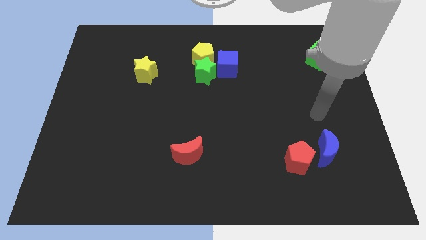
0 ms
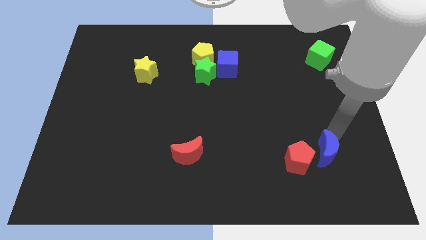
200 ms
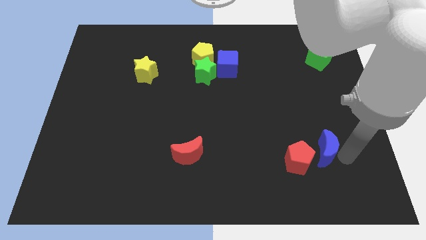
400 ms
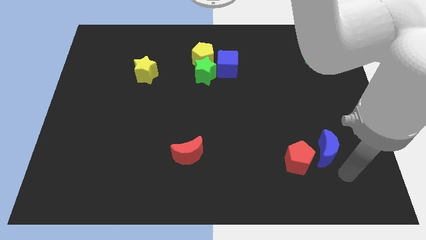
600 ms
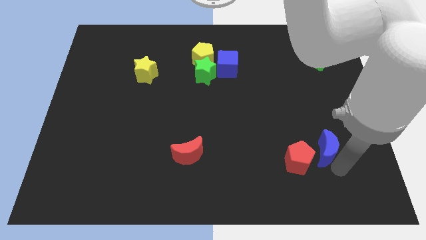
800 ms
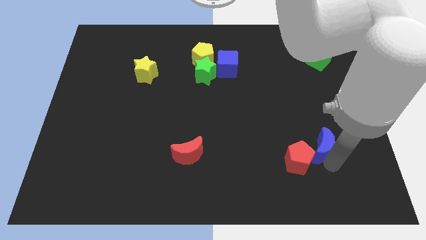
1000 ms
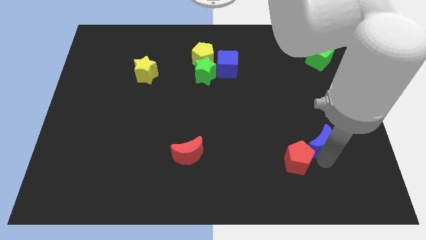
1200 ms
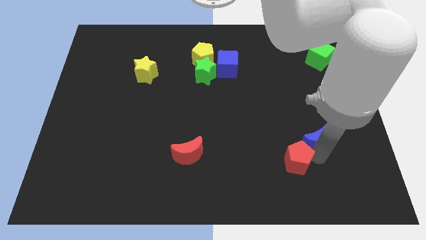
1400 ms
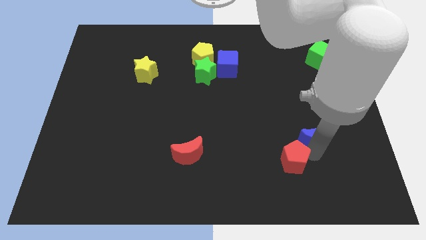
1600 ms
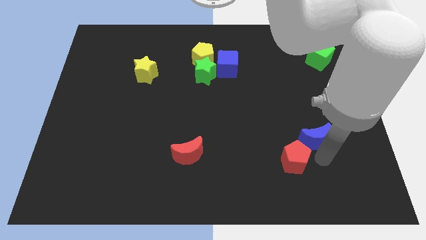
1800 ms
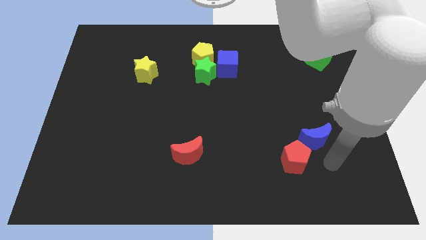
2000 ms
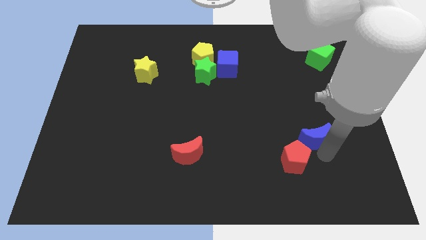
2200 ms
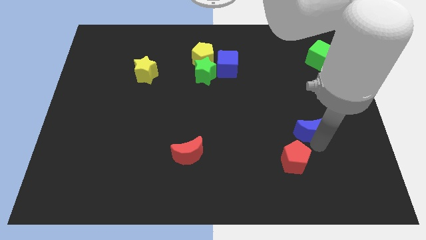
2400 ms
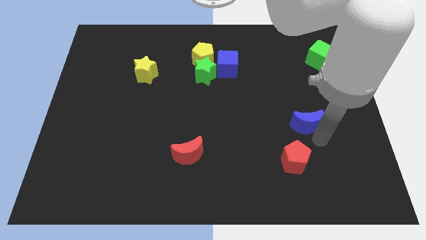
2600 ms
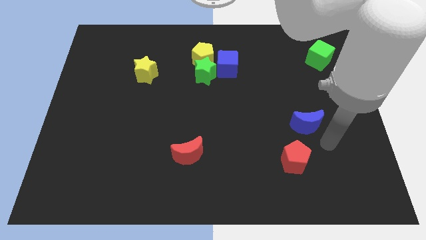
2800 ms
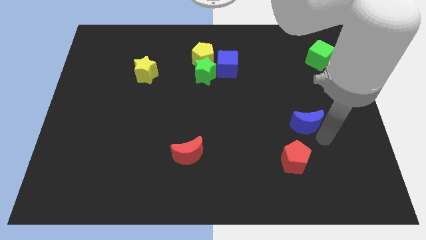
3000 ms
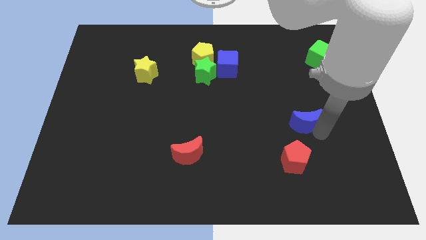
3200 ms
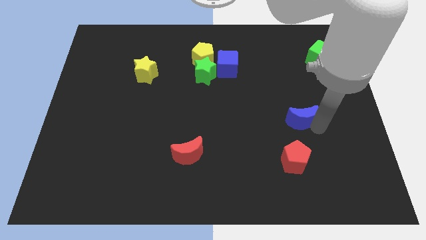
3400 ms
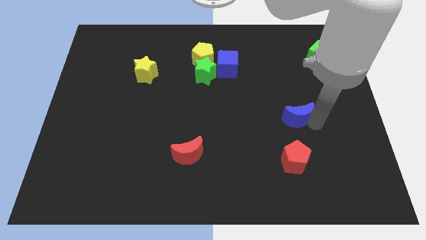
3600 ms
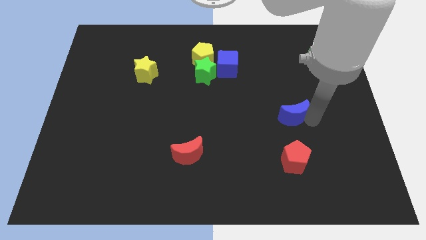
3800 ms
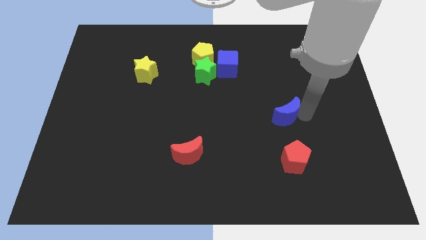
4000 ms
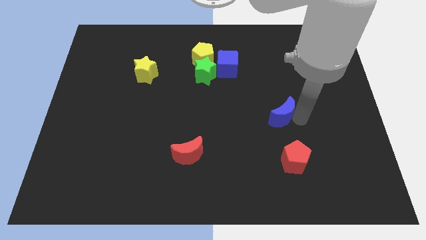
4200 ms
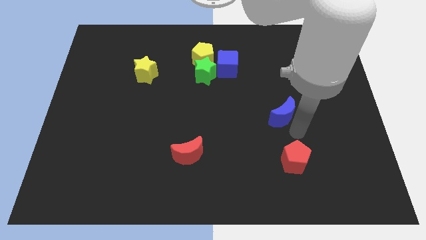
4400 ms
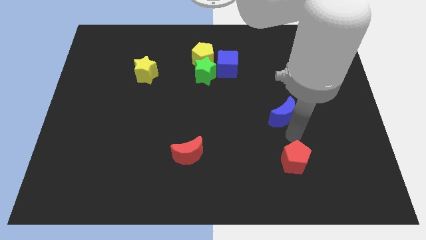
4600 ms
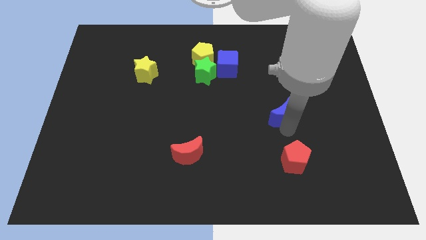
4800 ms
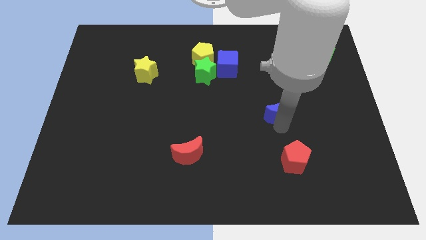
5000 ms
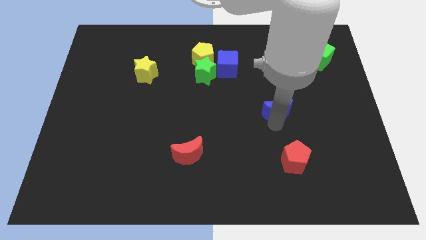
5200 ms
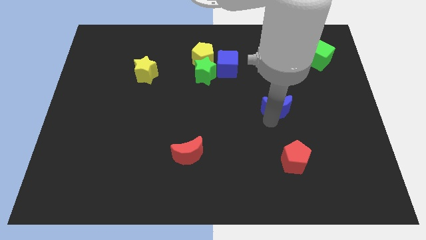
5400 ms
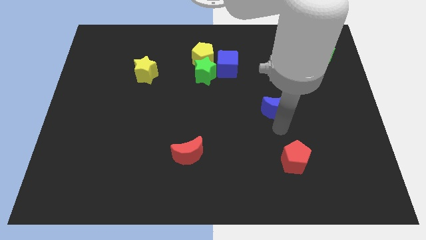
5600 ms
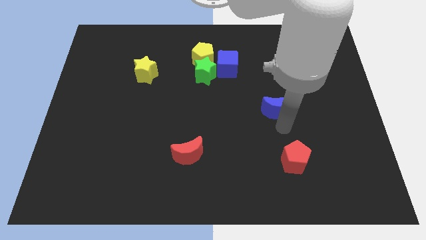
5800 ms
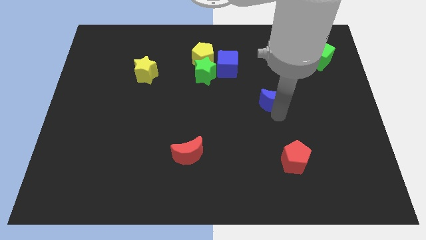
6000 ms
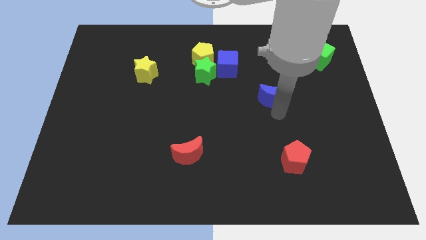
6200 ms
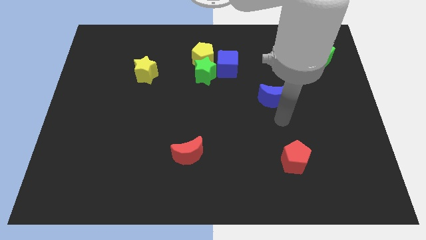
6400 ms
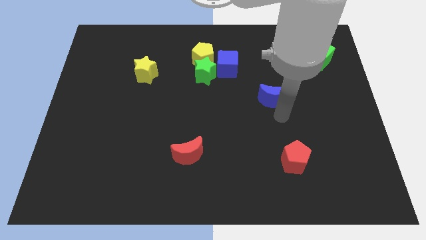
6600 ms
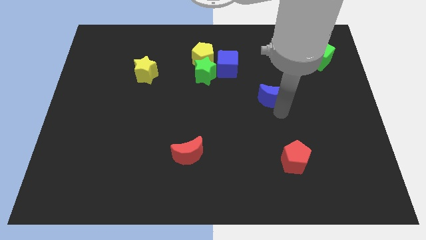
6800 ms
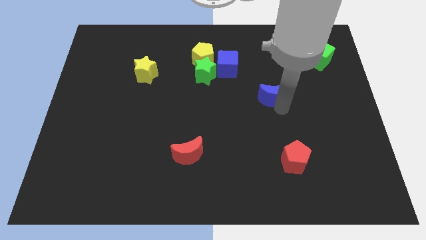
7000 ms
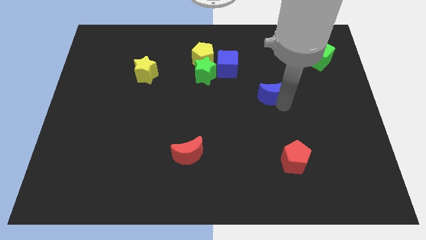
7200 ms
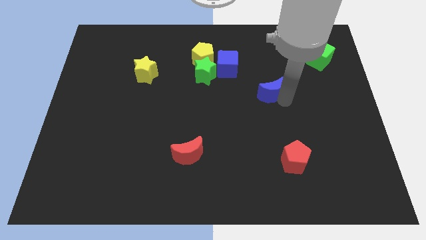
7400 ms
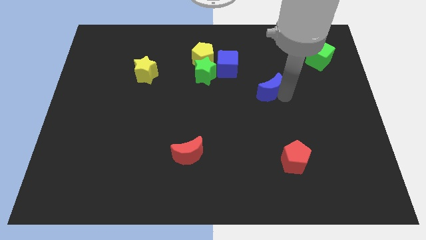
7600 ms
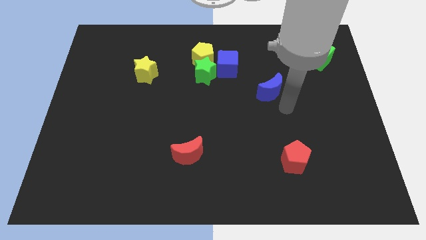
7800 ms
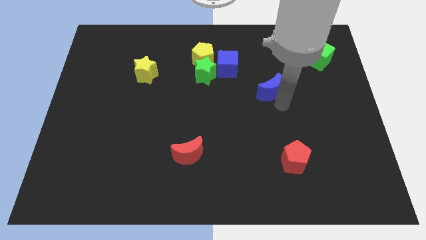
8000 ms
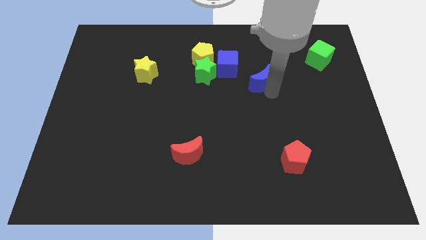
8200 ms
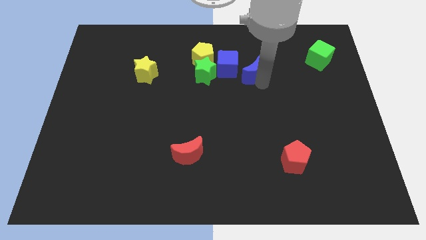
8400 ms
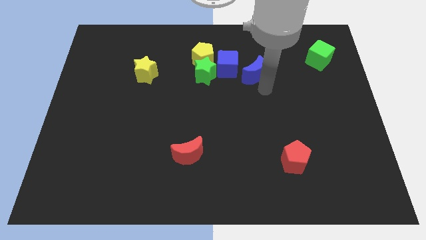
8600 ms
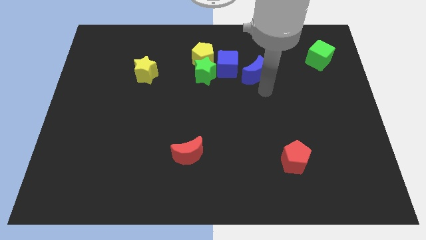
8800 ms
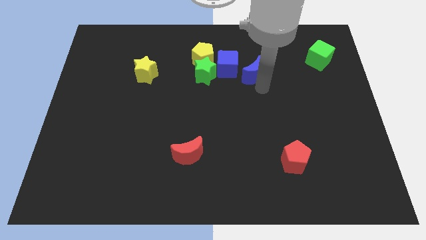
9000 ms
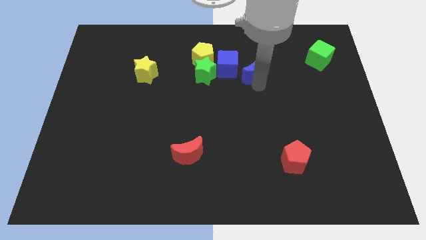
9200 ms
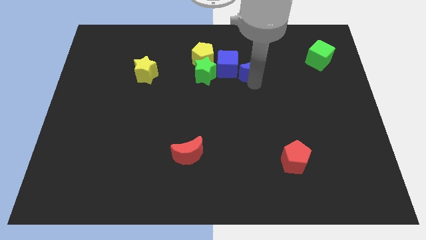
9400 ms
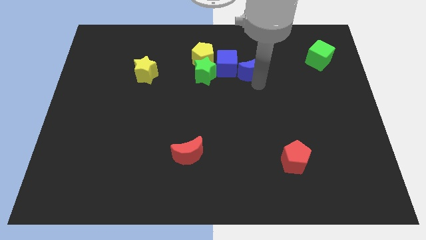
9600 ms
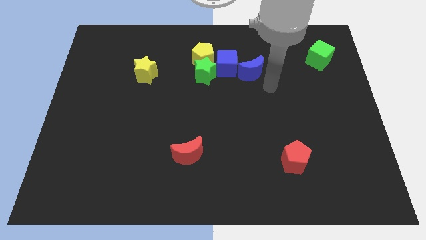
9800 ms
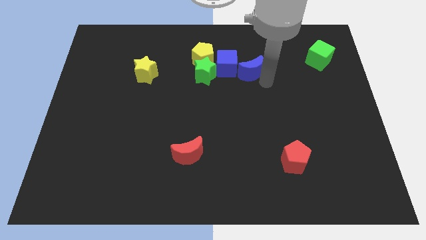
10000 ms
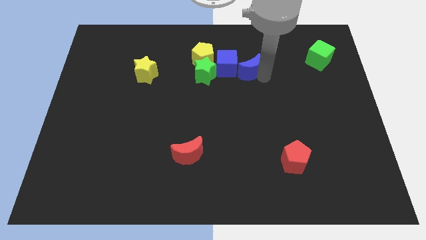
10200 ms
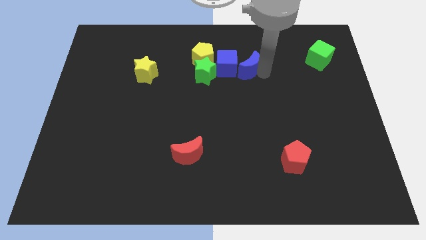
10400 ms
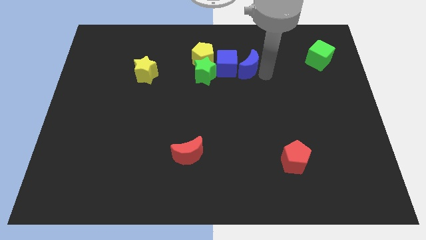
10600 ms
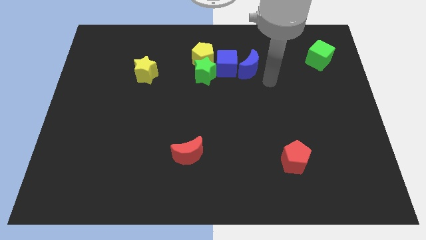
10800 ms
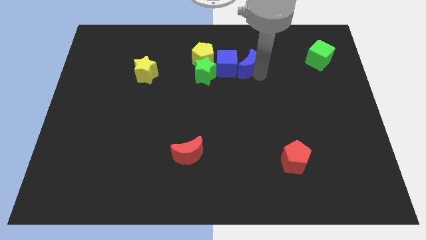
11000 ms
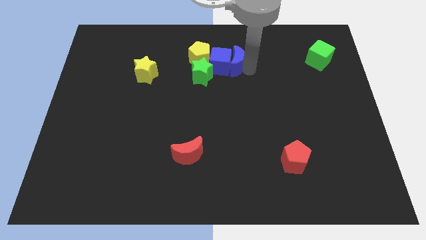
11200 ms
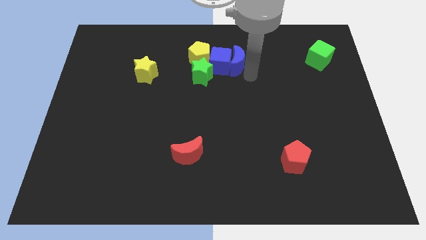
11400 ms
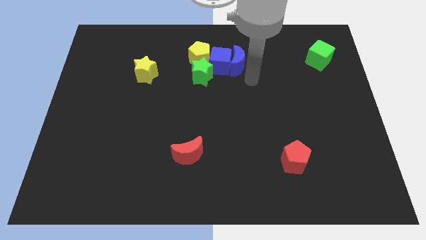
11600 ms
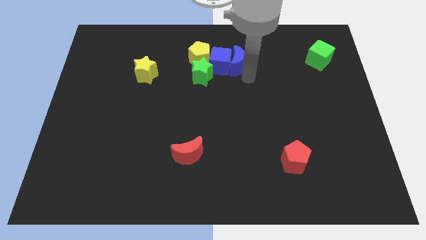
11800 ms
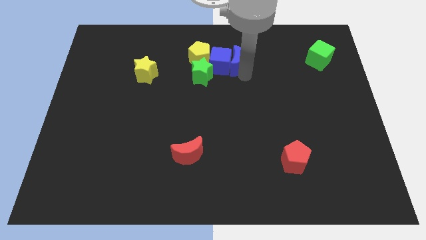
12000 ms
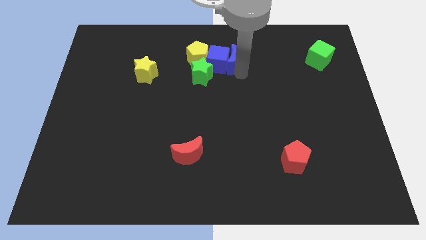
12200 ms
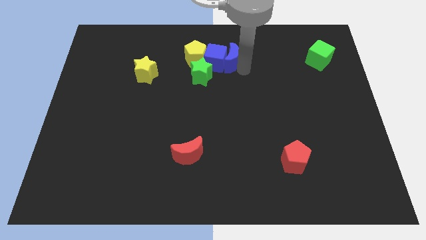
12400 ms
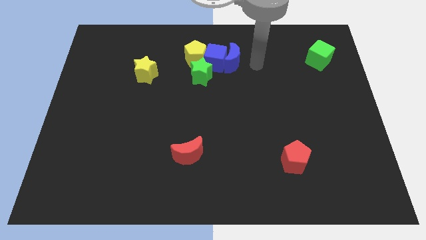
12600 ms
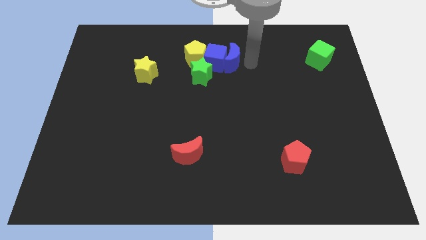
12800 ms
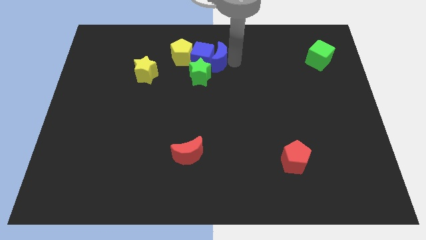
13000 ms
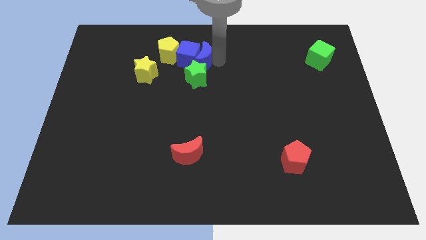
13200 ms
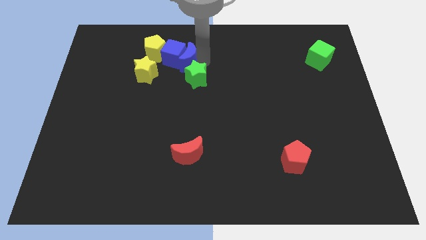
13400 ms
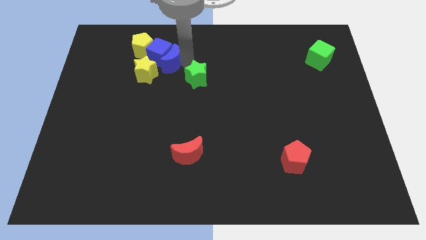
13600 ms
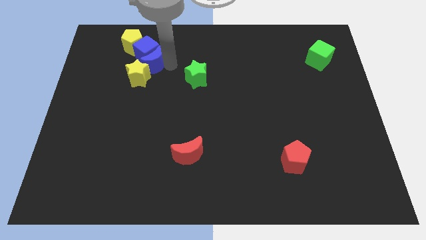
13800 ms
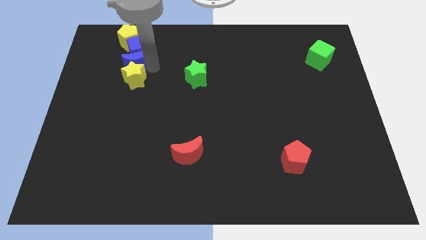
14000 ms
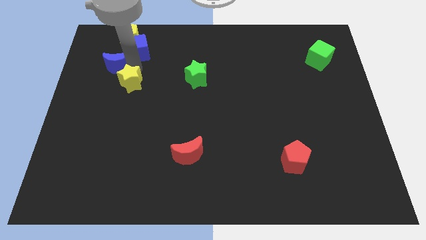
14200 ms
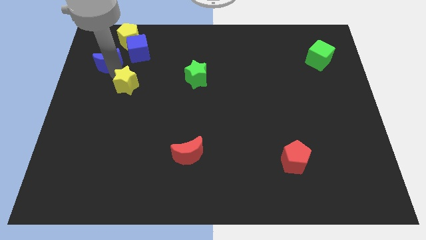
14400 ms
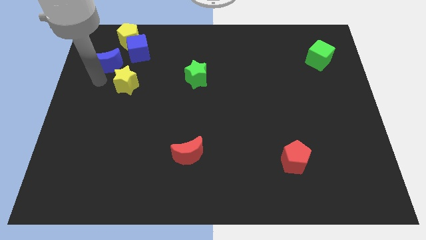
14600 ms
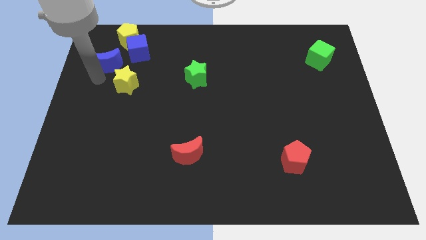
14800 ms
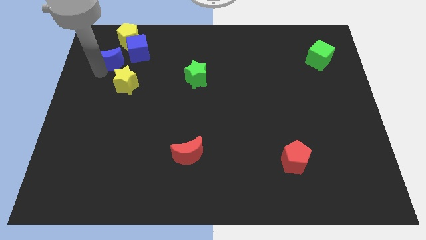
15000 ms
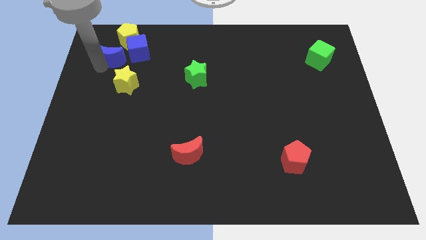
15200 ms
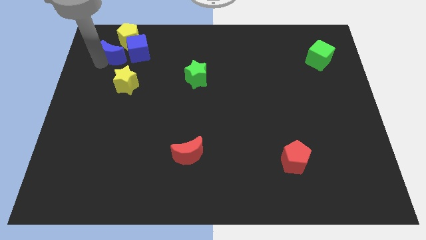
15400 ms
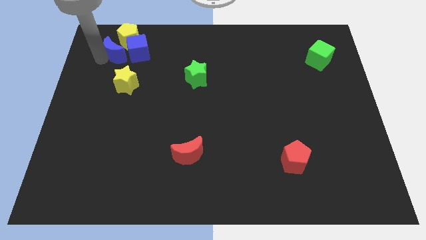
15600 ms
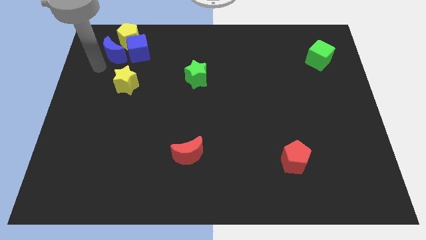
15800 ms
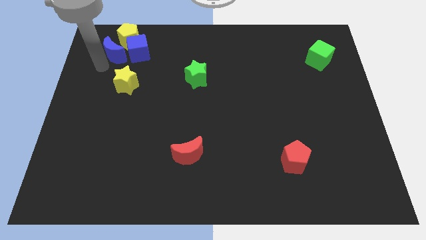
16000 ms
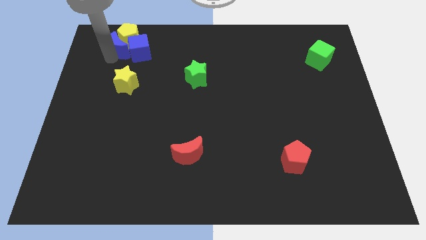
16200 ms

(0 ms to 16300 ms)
move the blue moon next to the yellow pentagon

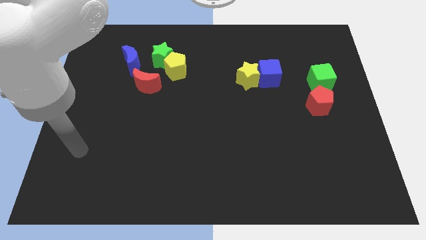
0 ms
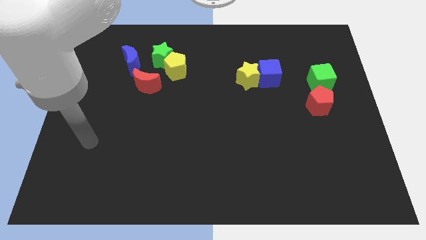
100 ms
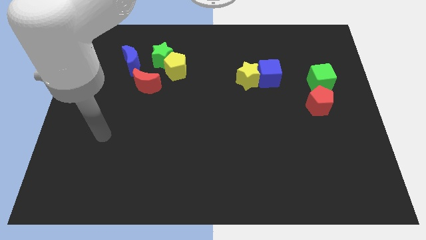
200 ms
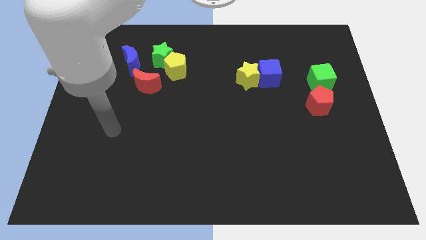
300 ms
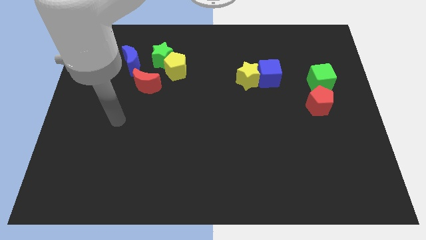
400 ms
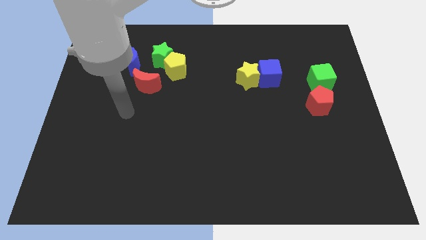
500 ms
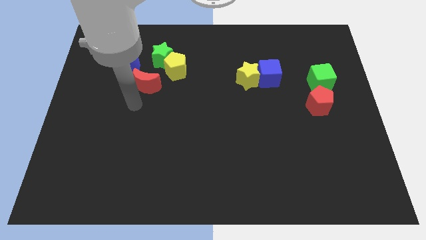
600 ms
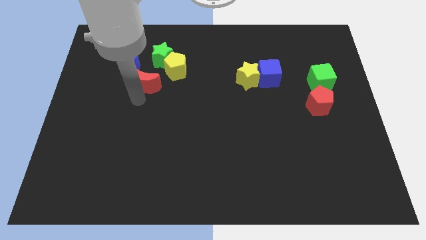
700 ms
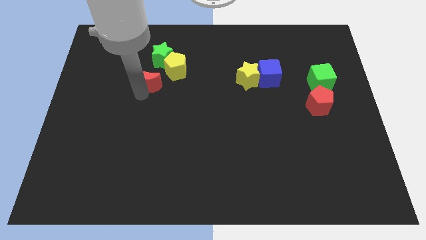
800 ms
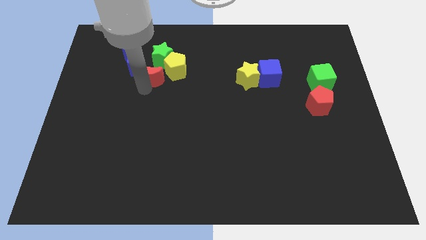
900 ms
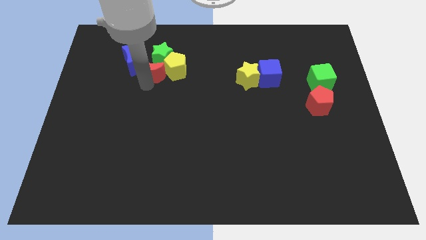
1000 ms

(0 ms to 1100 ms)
slide the red moon to the green star
